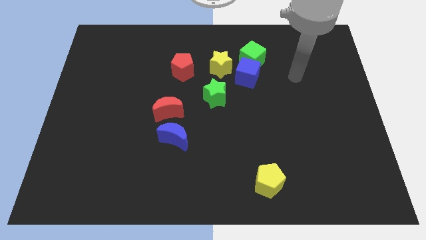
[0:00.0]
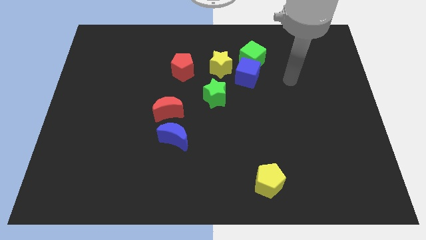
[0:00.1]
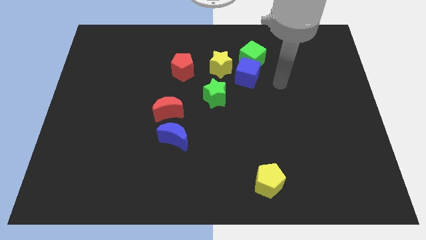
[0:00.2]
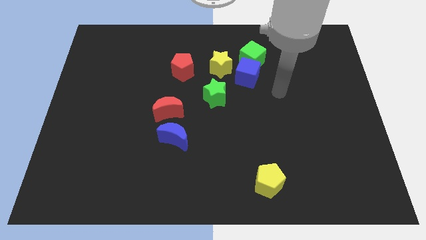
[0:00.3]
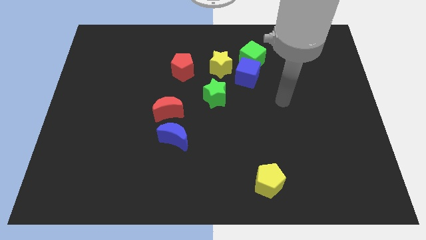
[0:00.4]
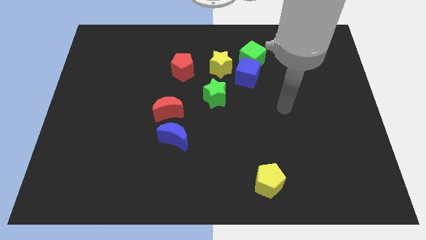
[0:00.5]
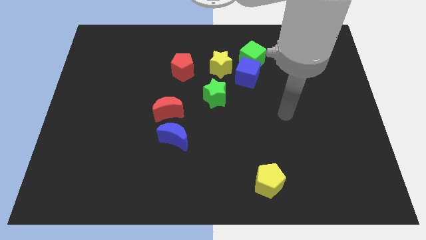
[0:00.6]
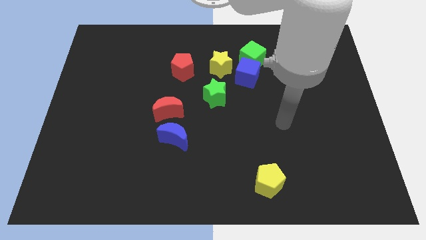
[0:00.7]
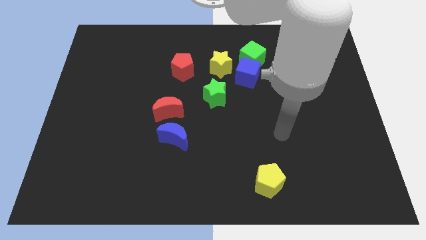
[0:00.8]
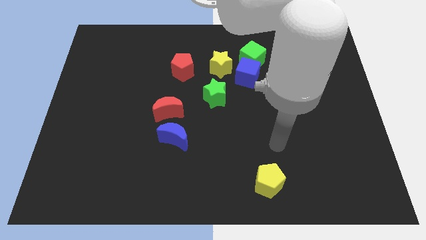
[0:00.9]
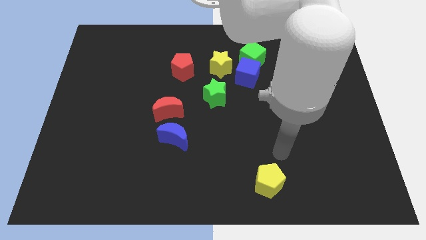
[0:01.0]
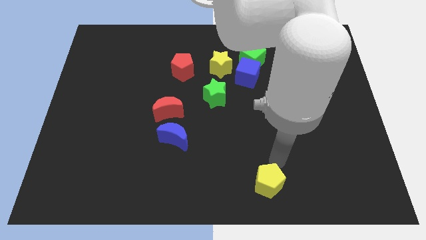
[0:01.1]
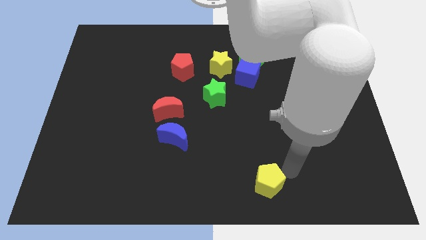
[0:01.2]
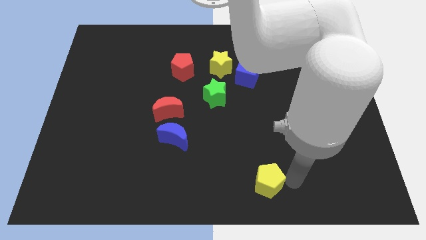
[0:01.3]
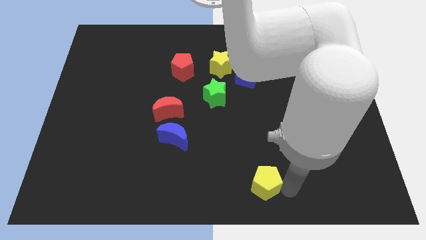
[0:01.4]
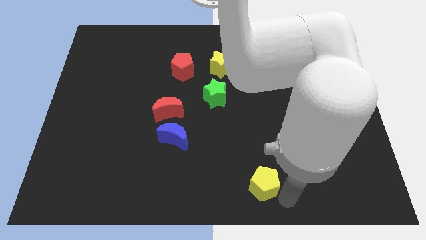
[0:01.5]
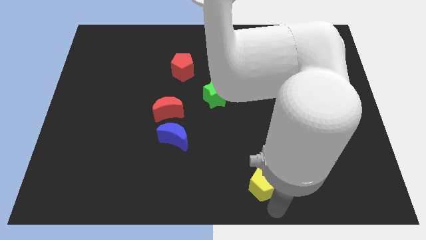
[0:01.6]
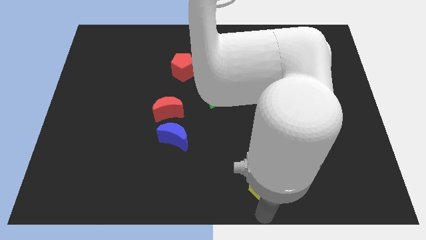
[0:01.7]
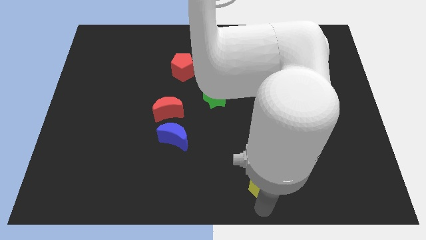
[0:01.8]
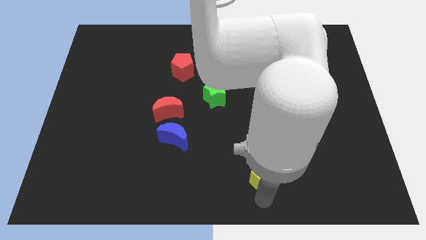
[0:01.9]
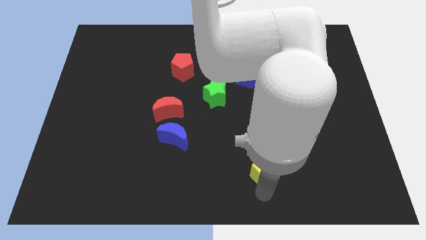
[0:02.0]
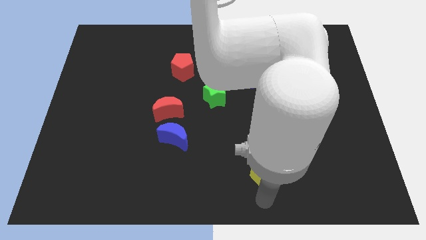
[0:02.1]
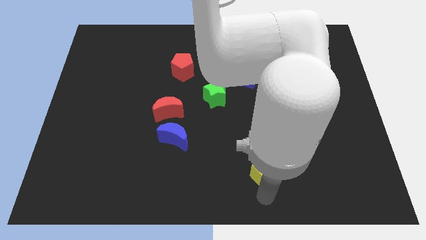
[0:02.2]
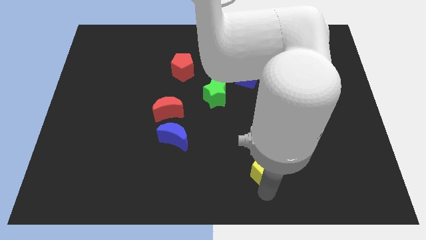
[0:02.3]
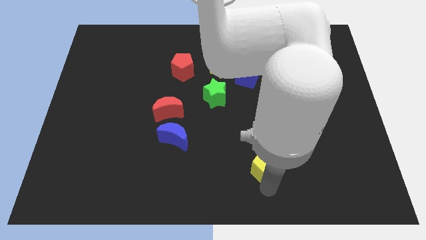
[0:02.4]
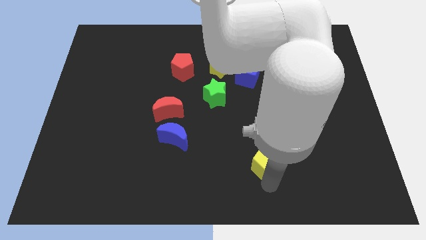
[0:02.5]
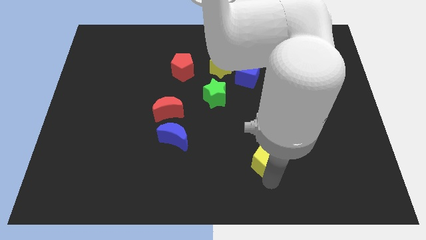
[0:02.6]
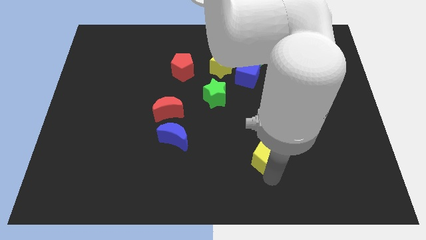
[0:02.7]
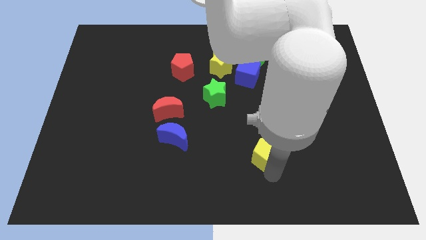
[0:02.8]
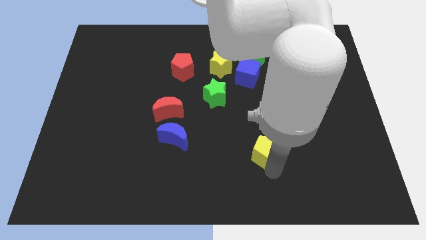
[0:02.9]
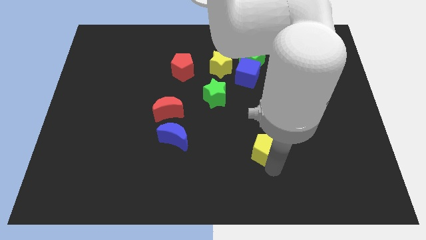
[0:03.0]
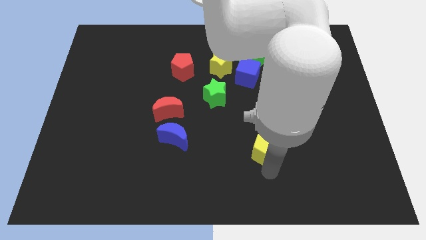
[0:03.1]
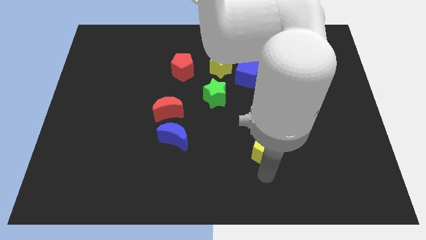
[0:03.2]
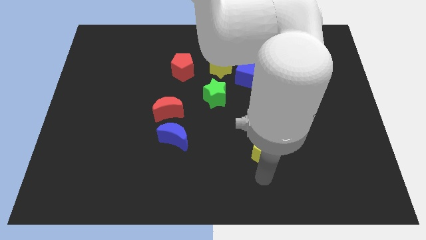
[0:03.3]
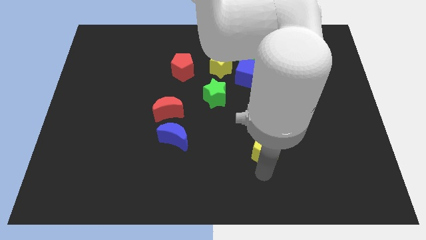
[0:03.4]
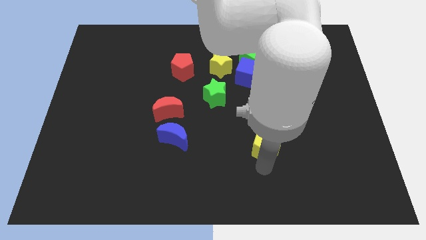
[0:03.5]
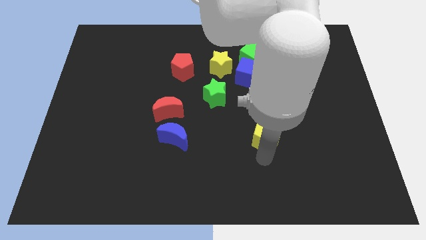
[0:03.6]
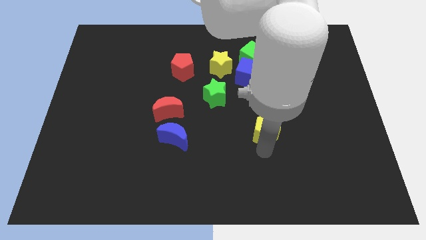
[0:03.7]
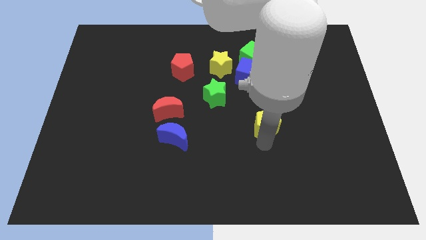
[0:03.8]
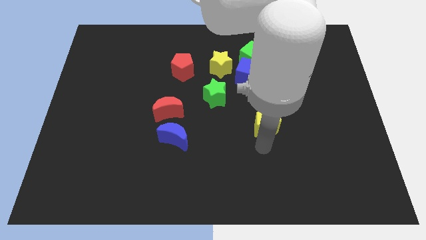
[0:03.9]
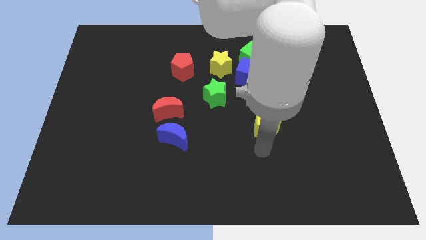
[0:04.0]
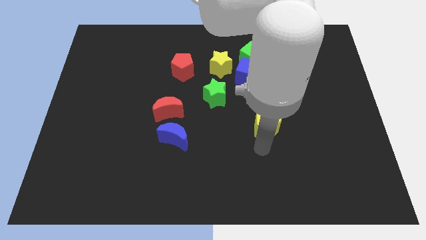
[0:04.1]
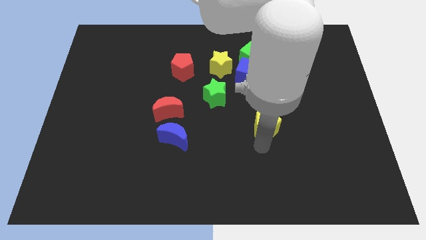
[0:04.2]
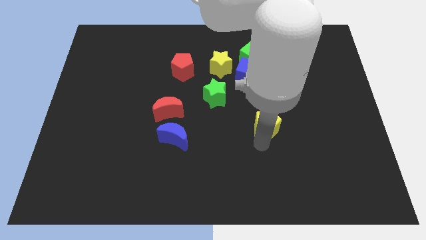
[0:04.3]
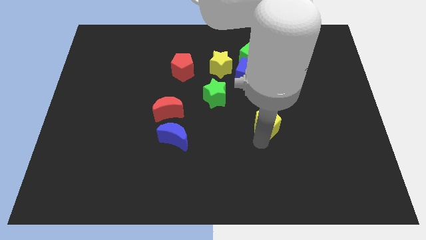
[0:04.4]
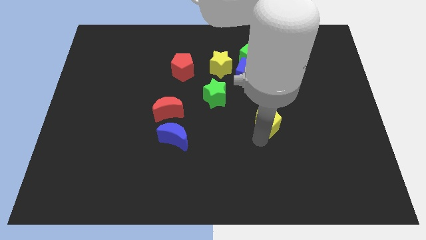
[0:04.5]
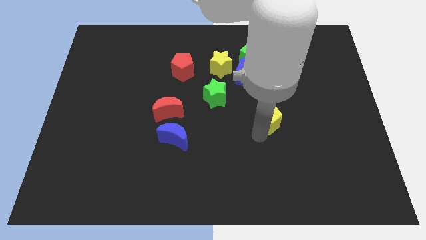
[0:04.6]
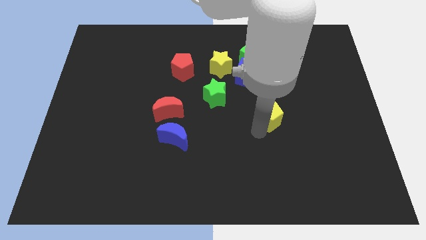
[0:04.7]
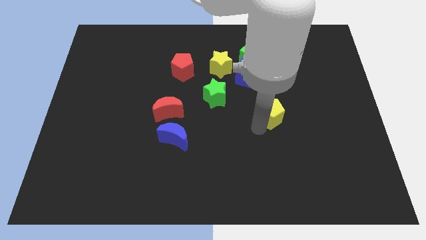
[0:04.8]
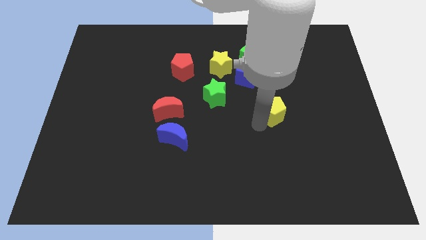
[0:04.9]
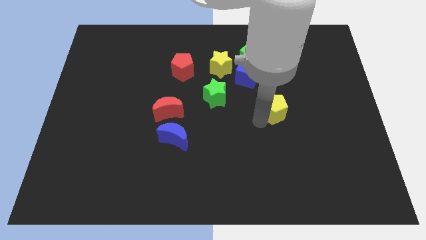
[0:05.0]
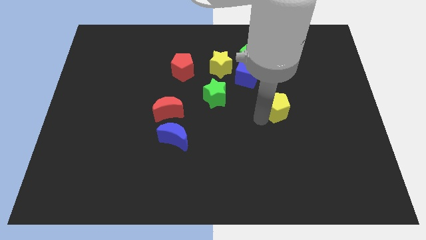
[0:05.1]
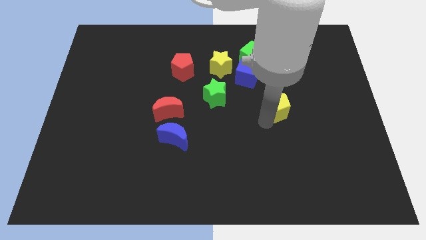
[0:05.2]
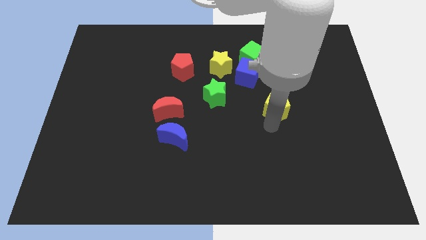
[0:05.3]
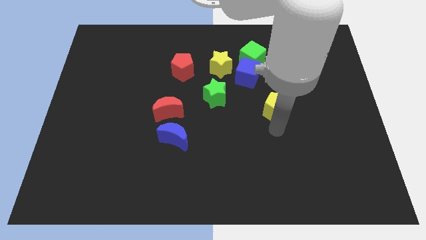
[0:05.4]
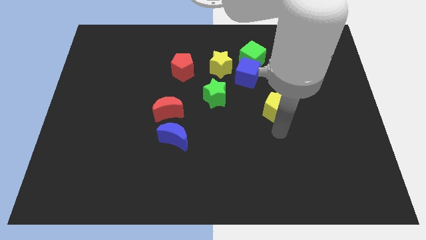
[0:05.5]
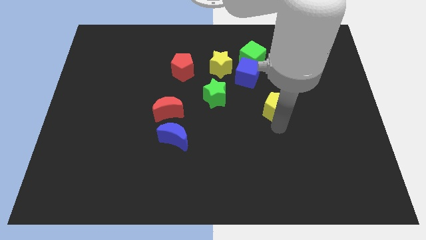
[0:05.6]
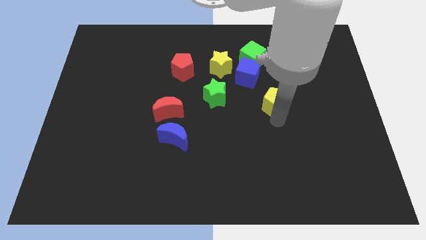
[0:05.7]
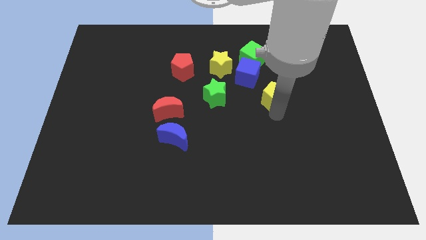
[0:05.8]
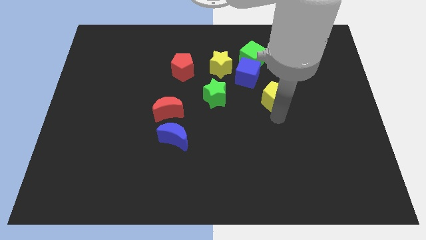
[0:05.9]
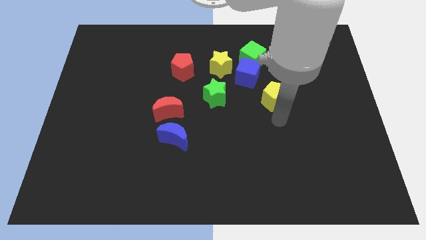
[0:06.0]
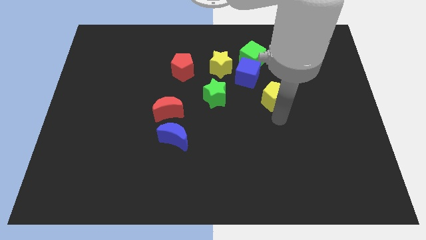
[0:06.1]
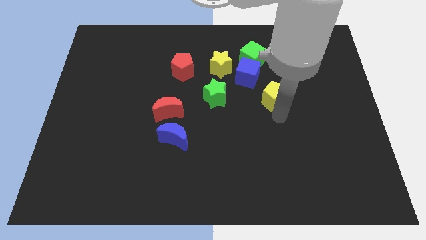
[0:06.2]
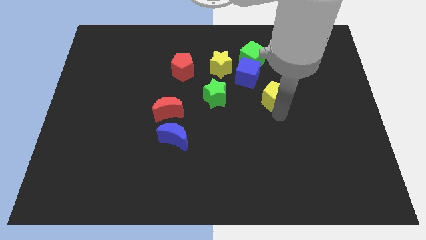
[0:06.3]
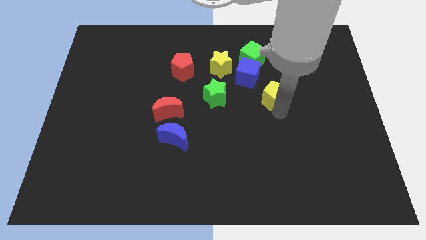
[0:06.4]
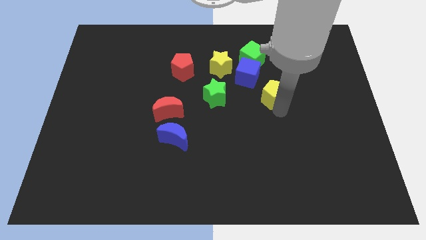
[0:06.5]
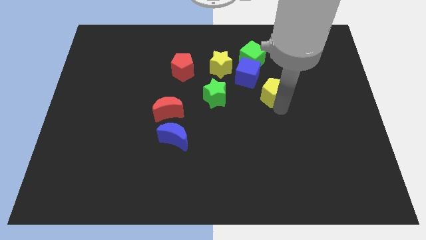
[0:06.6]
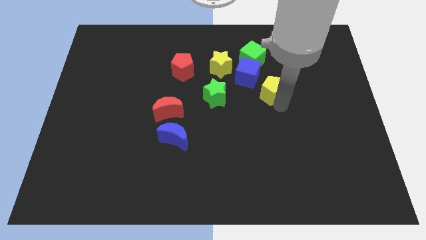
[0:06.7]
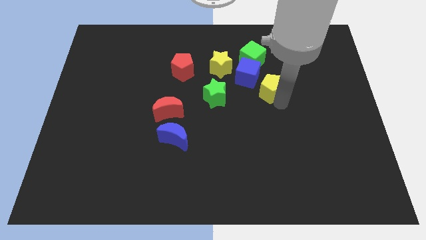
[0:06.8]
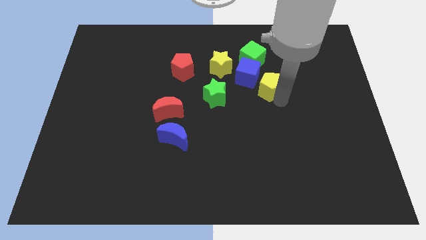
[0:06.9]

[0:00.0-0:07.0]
put the yellow pentagon diagonally down and to the right of the green cube
